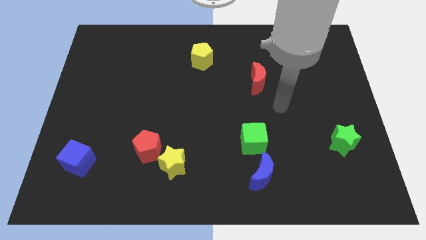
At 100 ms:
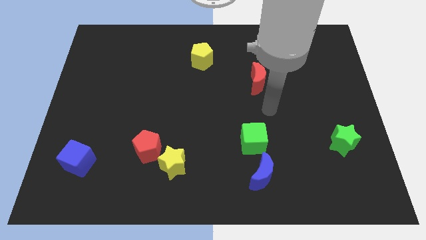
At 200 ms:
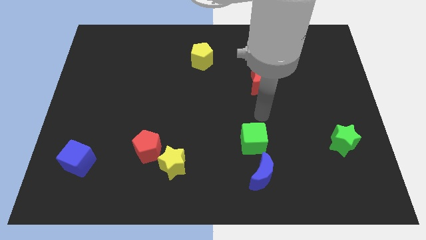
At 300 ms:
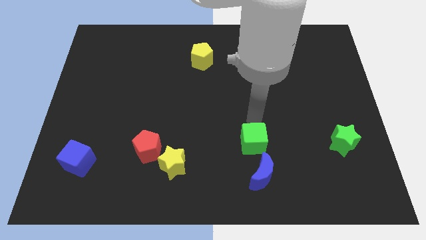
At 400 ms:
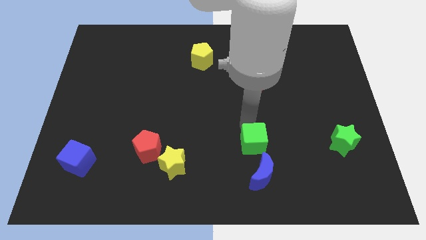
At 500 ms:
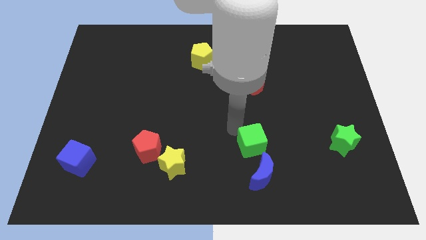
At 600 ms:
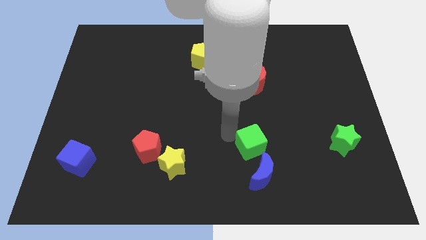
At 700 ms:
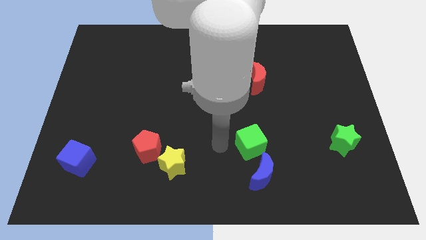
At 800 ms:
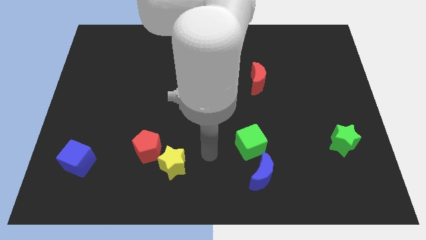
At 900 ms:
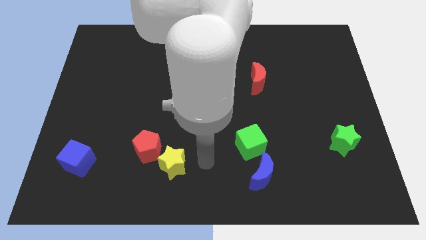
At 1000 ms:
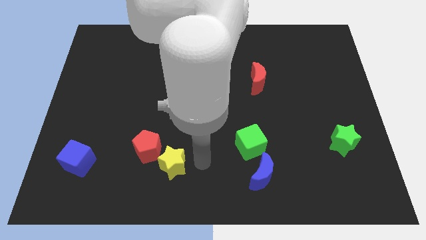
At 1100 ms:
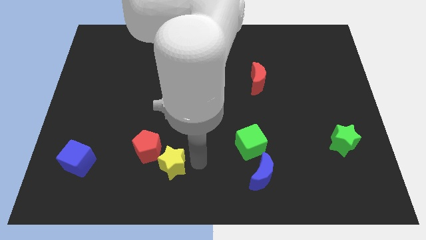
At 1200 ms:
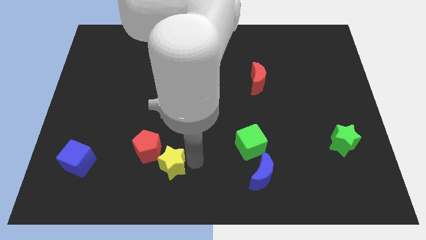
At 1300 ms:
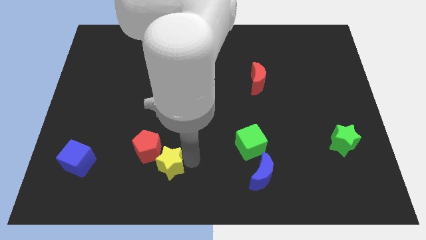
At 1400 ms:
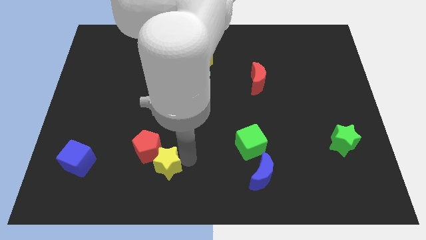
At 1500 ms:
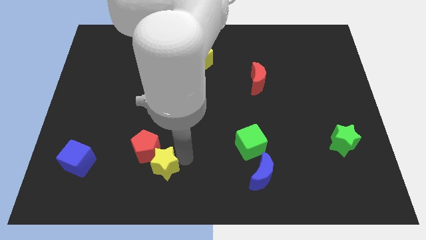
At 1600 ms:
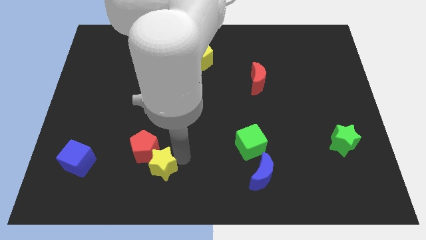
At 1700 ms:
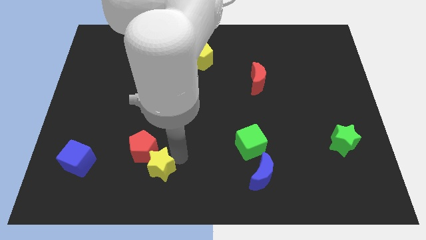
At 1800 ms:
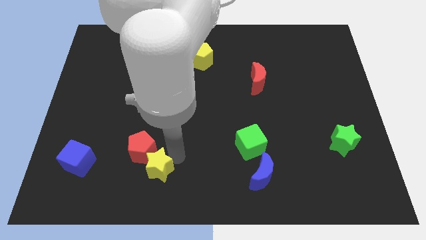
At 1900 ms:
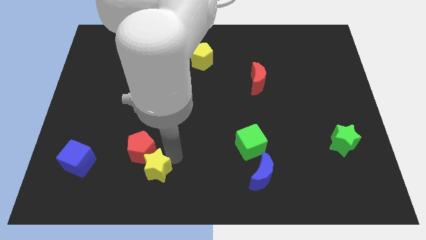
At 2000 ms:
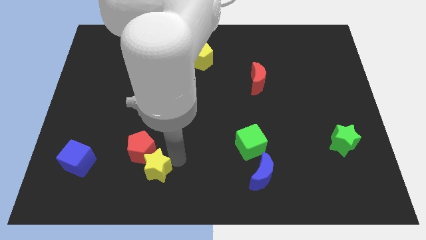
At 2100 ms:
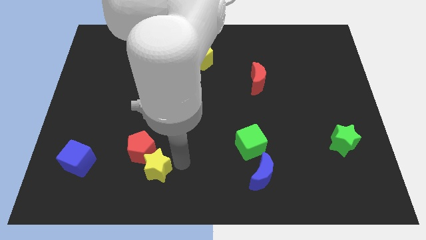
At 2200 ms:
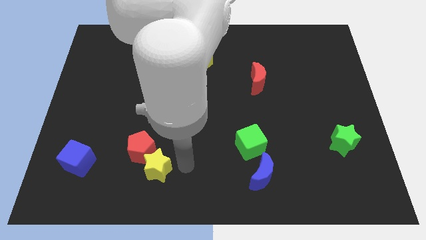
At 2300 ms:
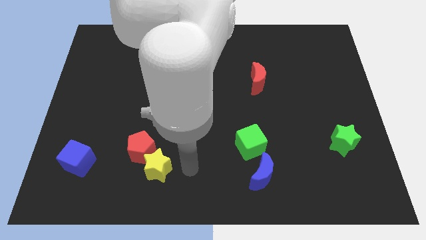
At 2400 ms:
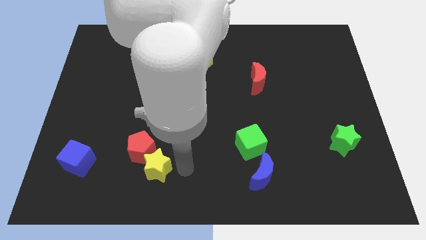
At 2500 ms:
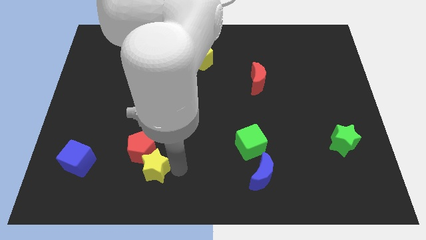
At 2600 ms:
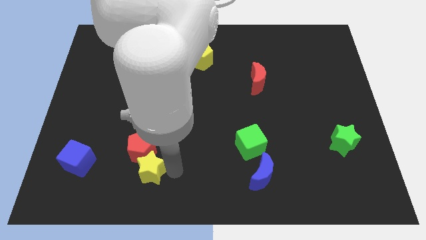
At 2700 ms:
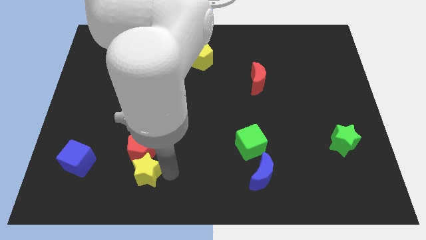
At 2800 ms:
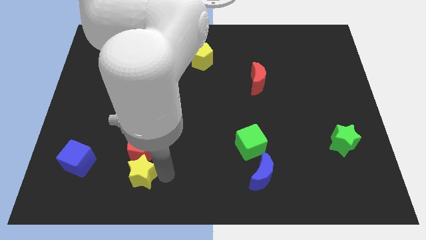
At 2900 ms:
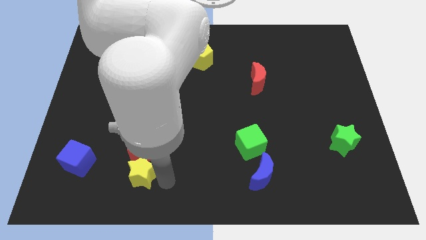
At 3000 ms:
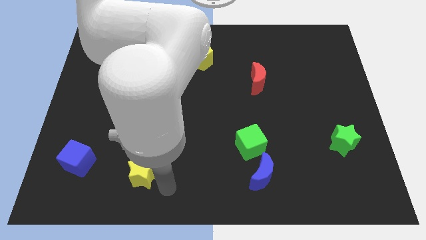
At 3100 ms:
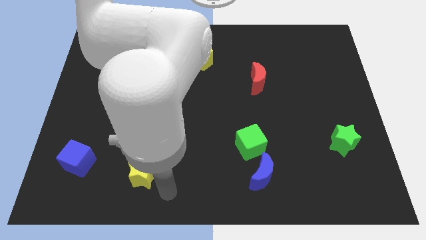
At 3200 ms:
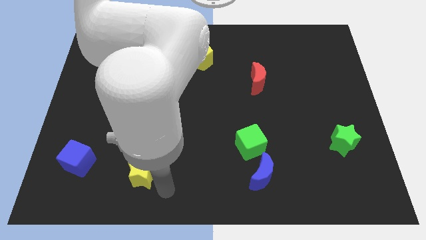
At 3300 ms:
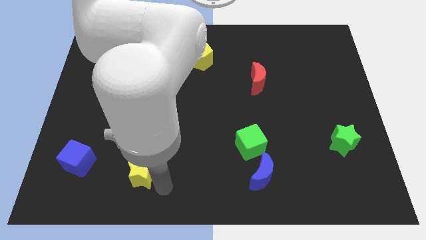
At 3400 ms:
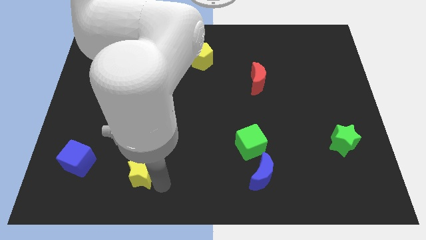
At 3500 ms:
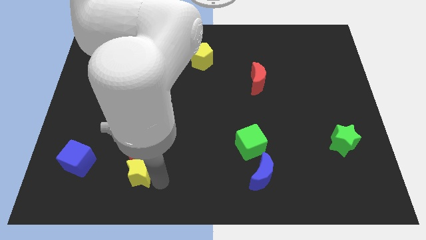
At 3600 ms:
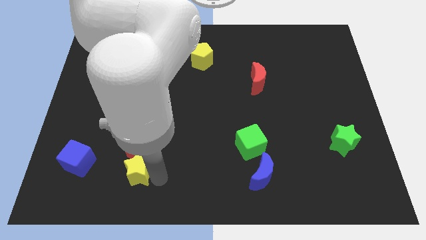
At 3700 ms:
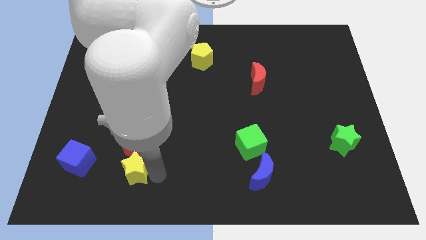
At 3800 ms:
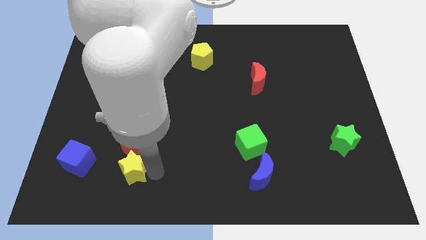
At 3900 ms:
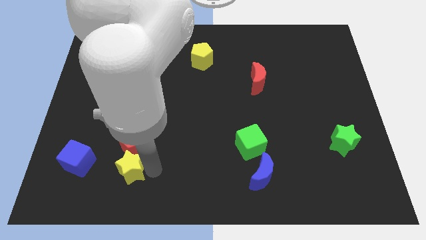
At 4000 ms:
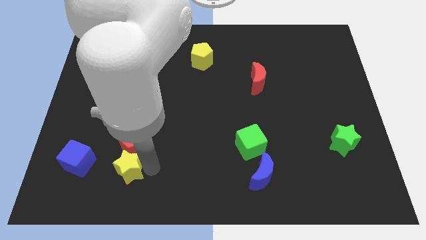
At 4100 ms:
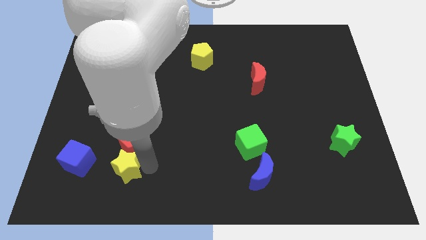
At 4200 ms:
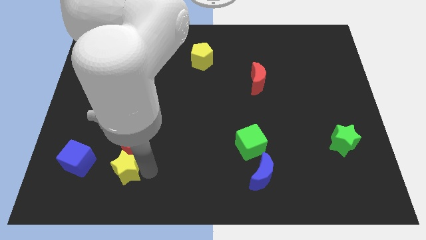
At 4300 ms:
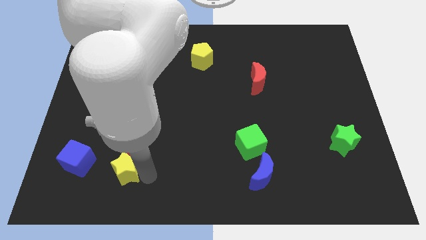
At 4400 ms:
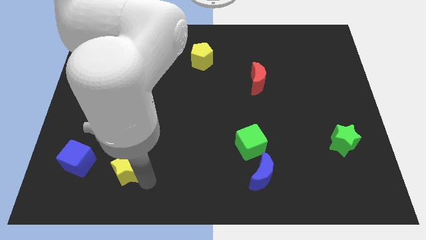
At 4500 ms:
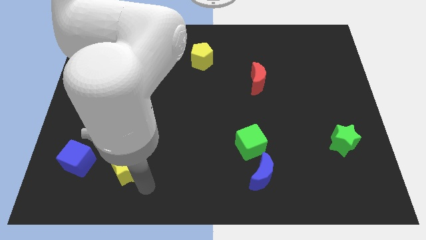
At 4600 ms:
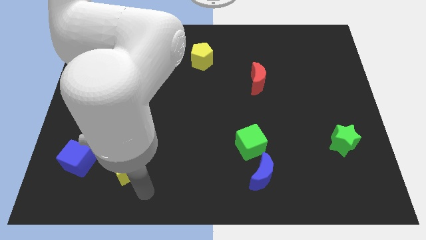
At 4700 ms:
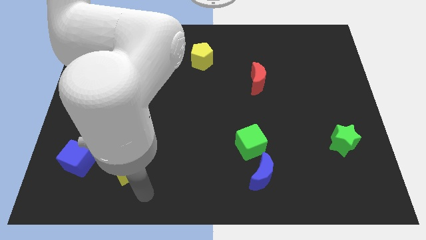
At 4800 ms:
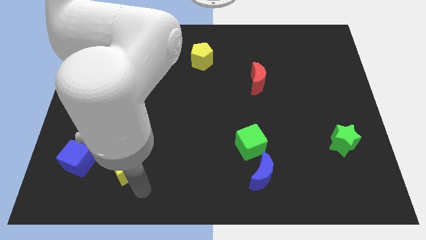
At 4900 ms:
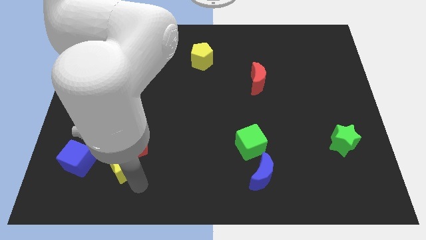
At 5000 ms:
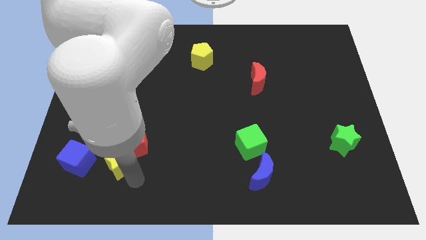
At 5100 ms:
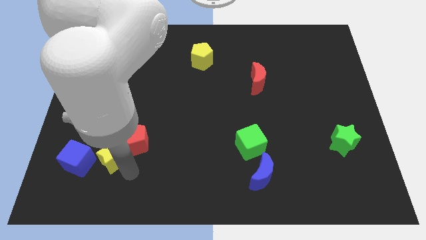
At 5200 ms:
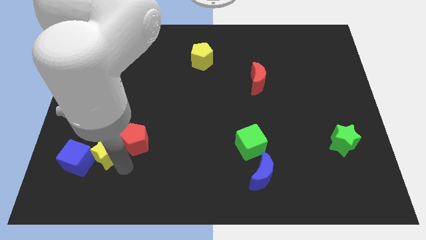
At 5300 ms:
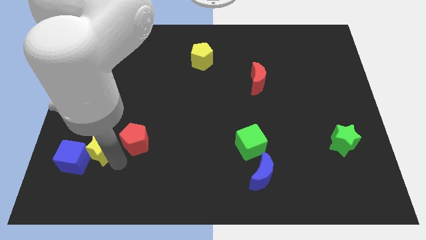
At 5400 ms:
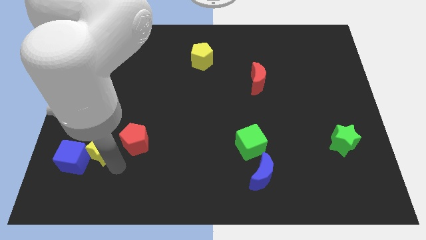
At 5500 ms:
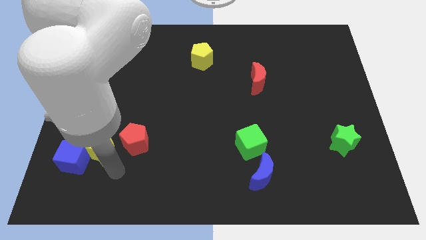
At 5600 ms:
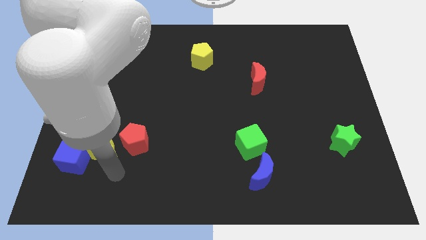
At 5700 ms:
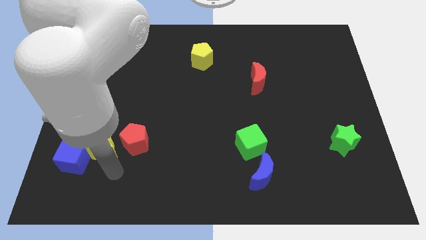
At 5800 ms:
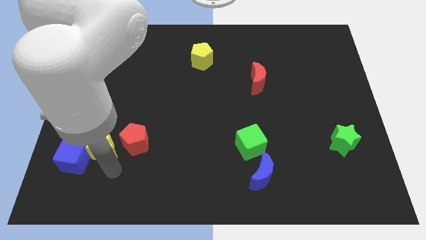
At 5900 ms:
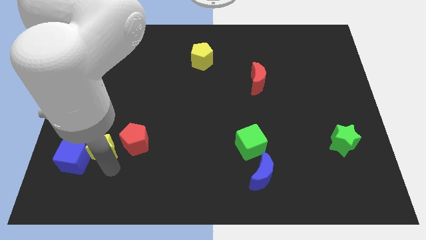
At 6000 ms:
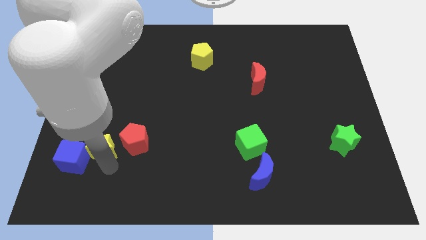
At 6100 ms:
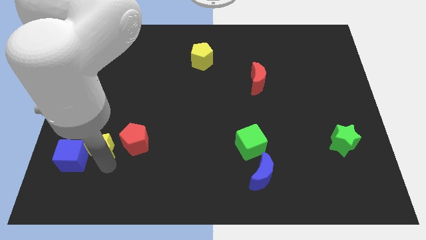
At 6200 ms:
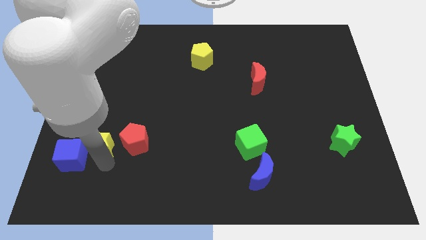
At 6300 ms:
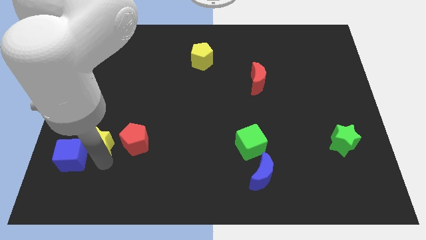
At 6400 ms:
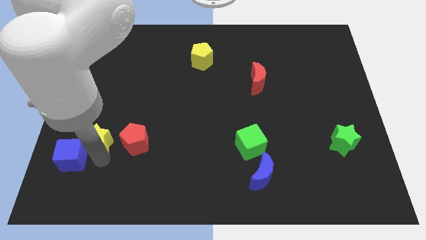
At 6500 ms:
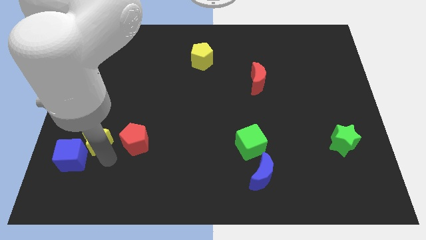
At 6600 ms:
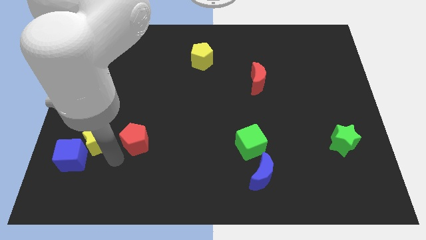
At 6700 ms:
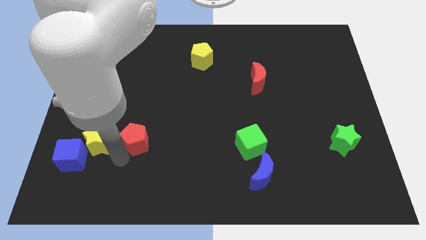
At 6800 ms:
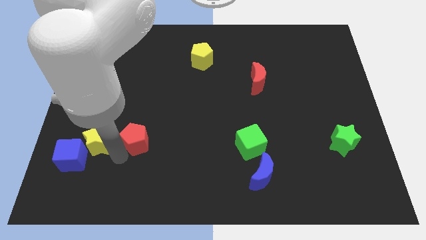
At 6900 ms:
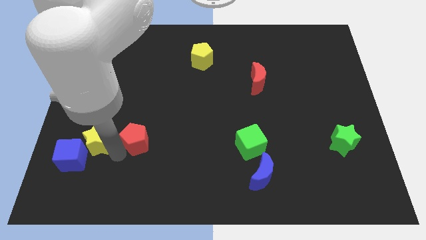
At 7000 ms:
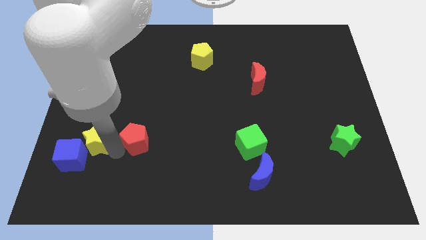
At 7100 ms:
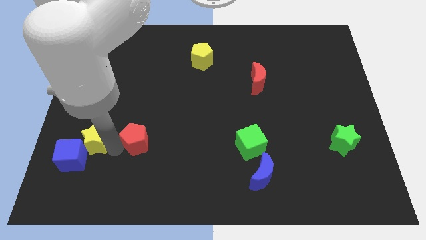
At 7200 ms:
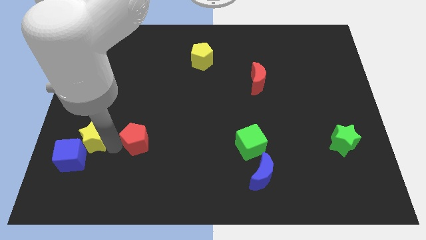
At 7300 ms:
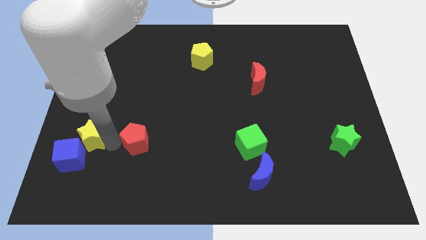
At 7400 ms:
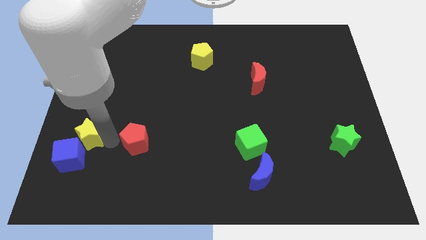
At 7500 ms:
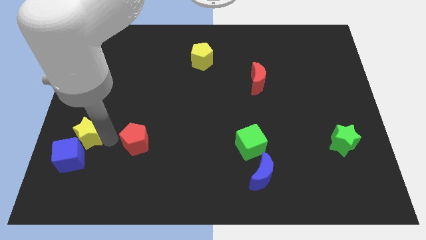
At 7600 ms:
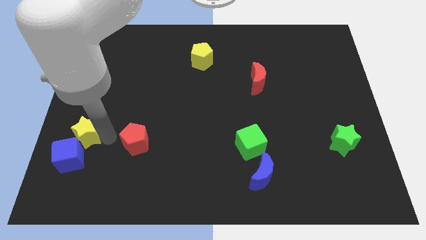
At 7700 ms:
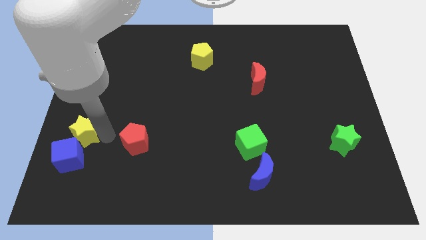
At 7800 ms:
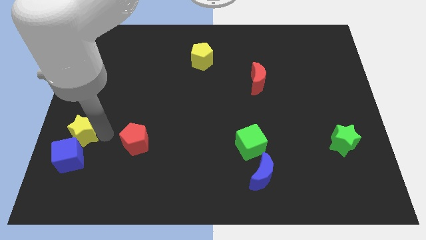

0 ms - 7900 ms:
move the yellow star to the center left
